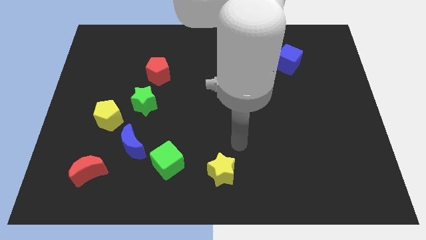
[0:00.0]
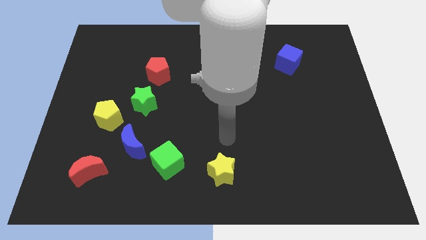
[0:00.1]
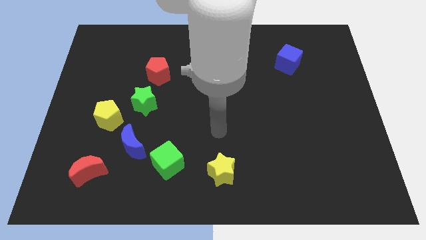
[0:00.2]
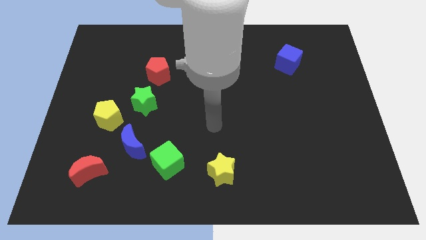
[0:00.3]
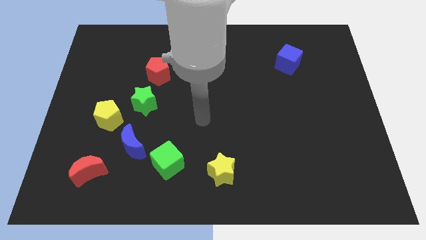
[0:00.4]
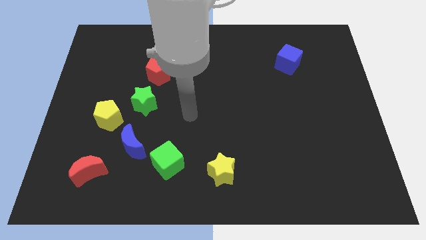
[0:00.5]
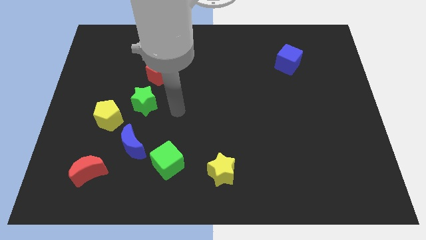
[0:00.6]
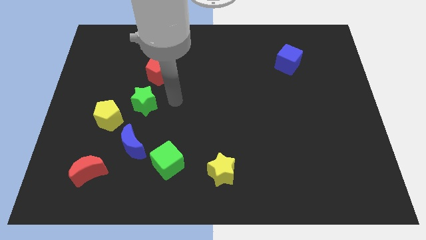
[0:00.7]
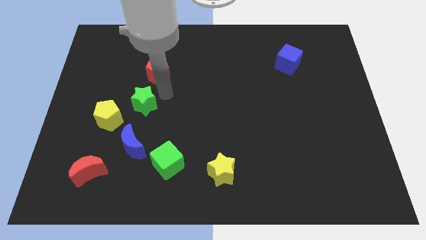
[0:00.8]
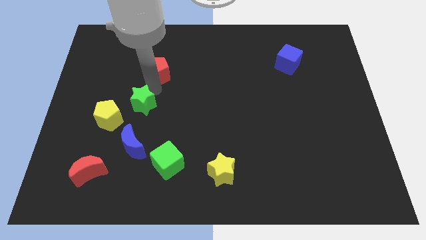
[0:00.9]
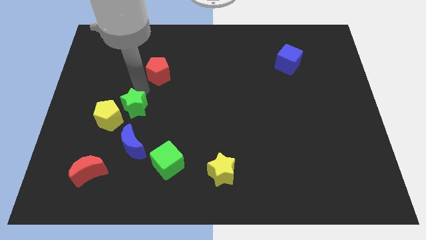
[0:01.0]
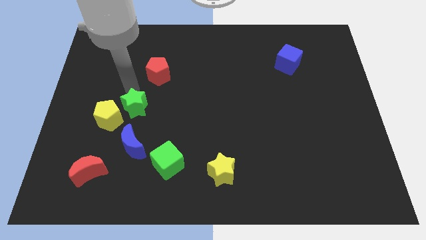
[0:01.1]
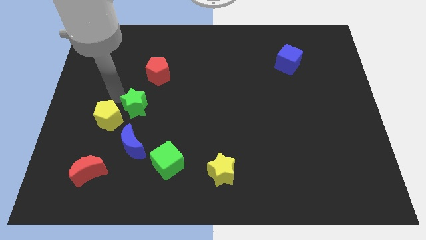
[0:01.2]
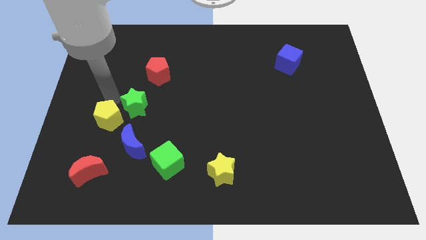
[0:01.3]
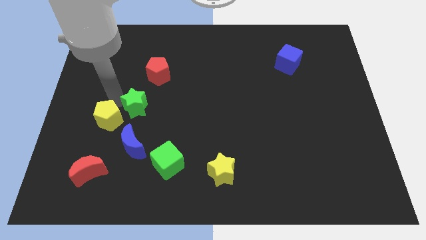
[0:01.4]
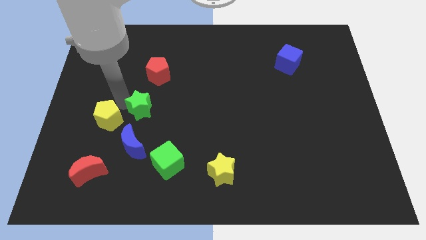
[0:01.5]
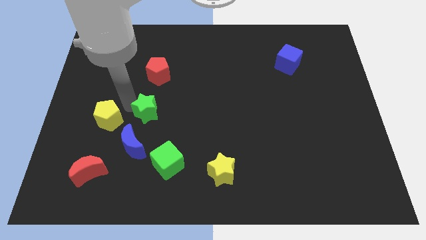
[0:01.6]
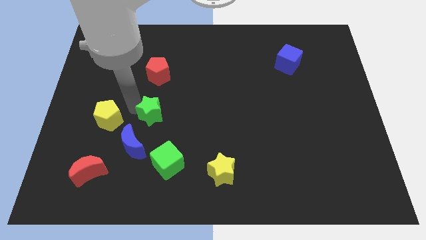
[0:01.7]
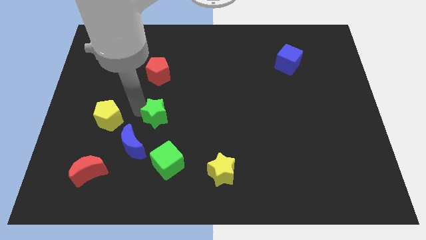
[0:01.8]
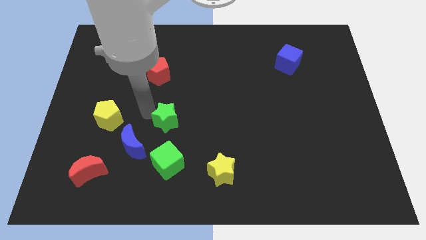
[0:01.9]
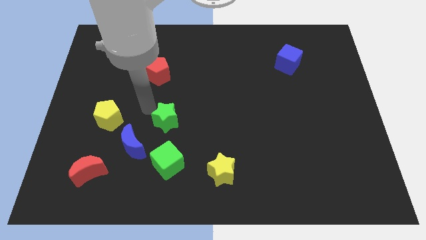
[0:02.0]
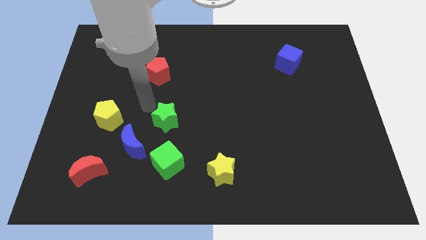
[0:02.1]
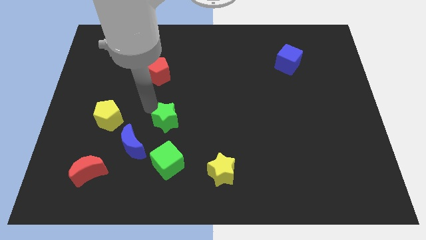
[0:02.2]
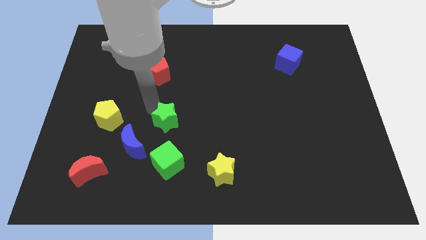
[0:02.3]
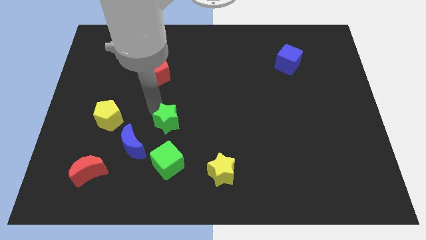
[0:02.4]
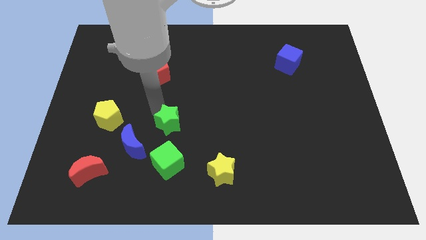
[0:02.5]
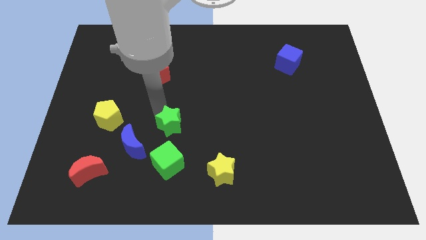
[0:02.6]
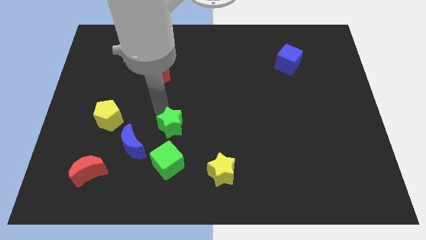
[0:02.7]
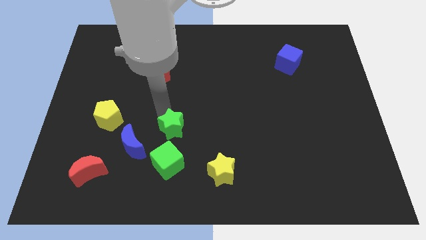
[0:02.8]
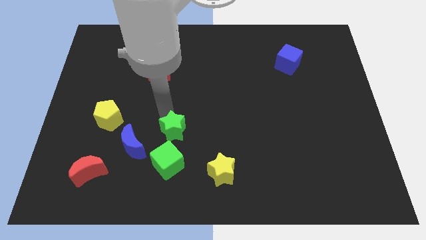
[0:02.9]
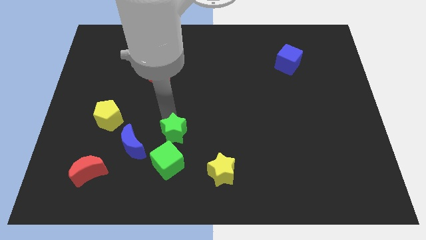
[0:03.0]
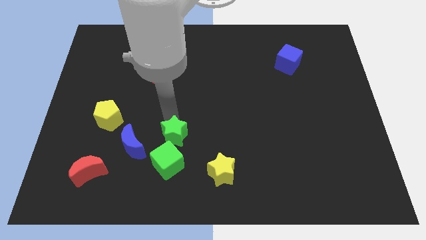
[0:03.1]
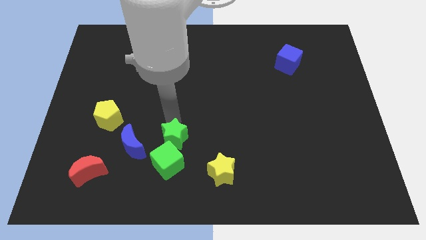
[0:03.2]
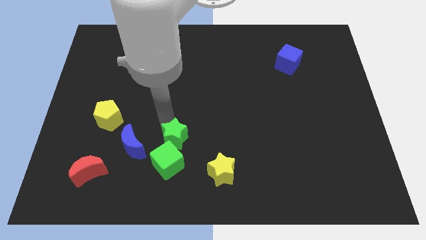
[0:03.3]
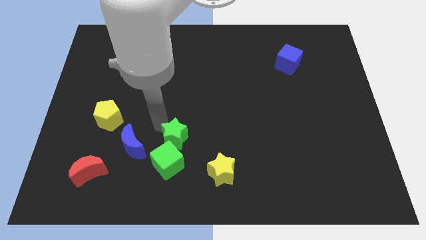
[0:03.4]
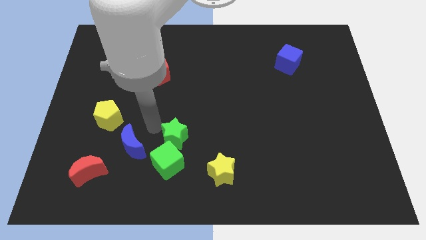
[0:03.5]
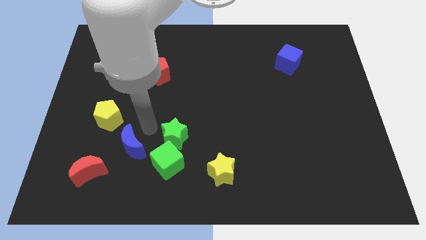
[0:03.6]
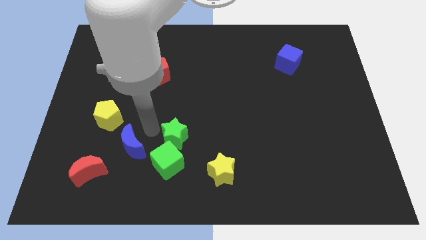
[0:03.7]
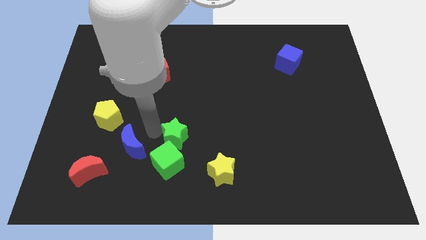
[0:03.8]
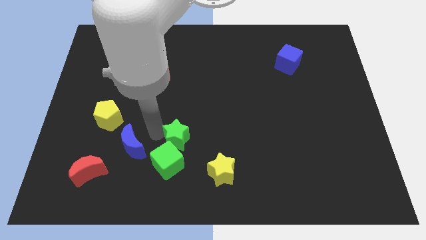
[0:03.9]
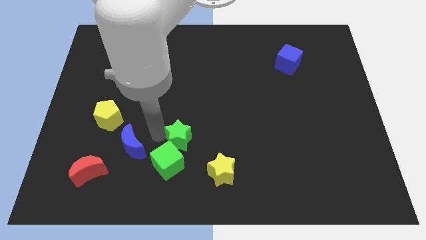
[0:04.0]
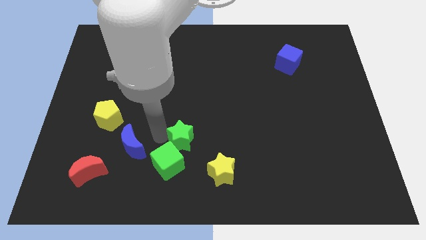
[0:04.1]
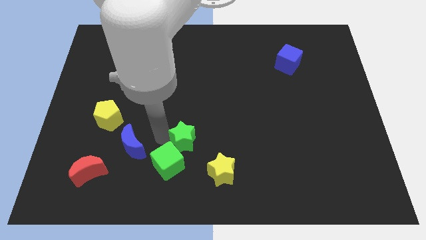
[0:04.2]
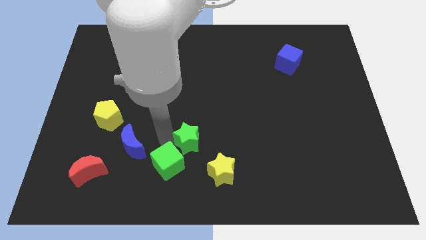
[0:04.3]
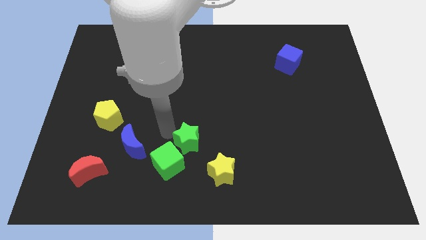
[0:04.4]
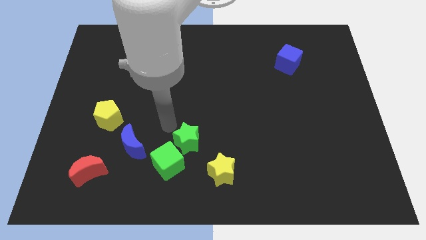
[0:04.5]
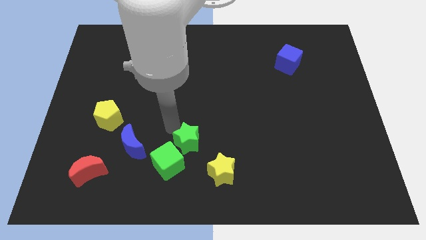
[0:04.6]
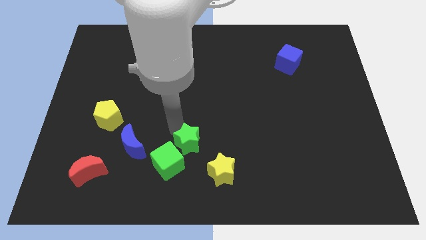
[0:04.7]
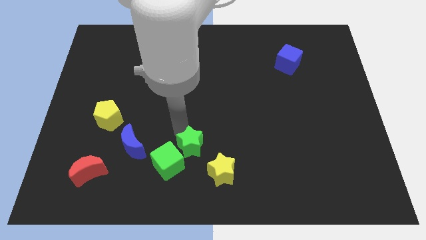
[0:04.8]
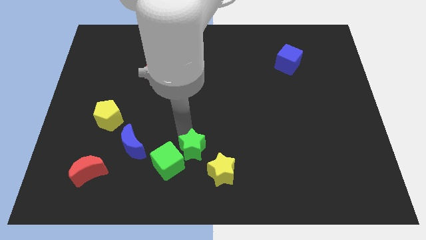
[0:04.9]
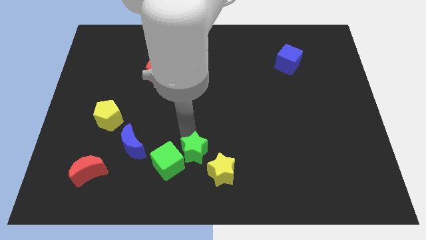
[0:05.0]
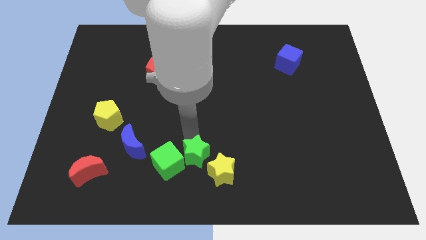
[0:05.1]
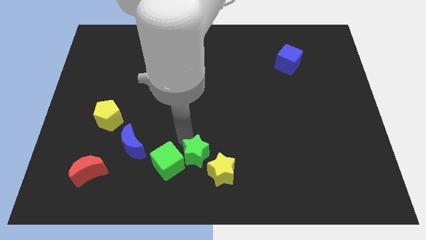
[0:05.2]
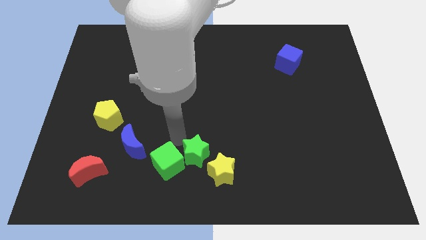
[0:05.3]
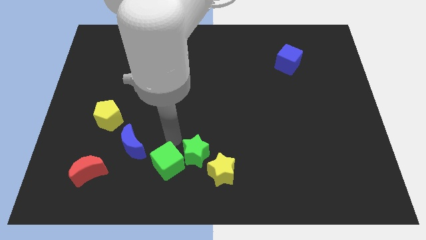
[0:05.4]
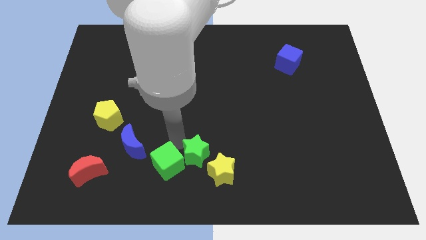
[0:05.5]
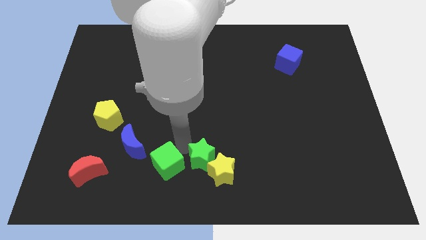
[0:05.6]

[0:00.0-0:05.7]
move the green star to the yellow star

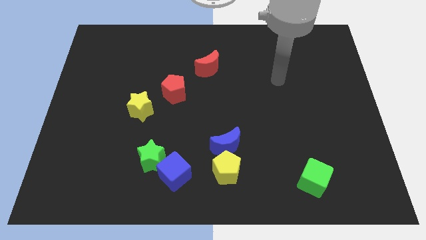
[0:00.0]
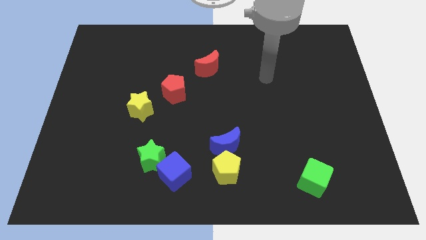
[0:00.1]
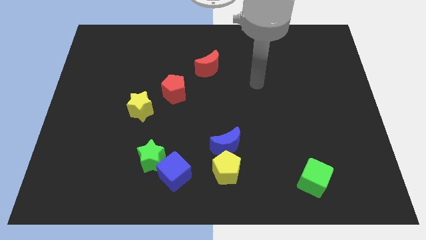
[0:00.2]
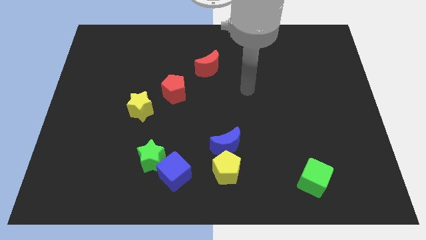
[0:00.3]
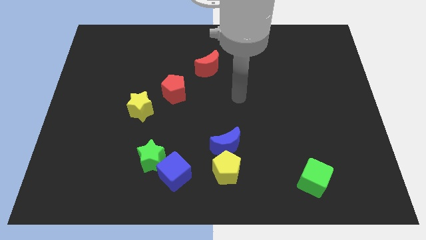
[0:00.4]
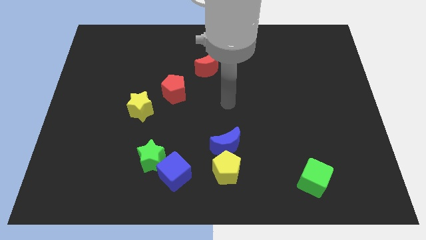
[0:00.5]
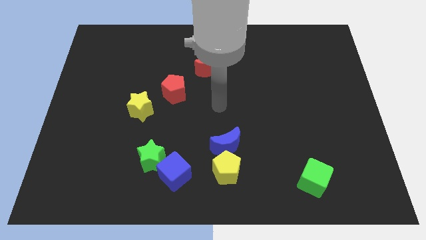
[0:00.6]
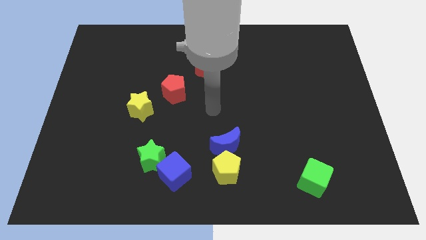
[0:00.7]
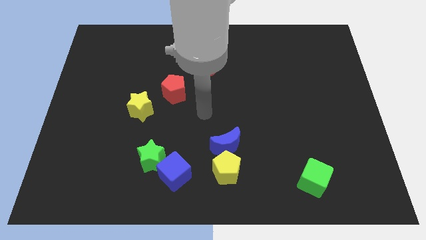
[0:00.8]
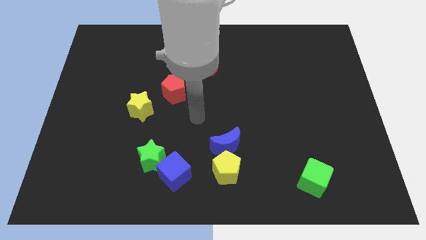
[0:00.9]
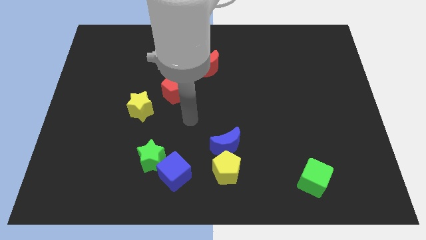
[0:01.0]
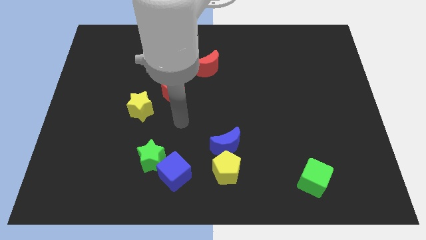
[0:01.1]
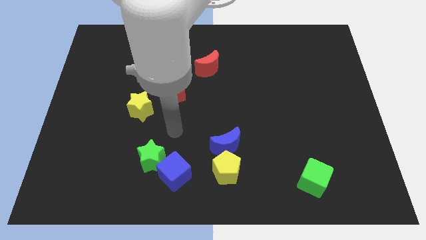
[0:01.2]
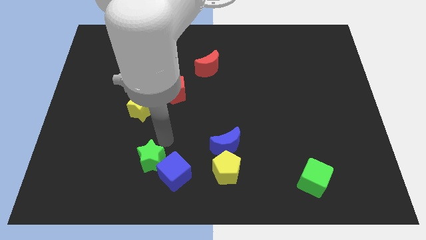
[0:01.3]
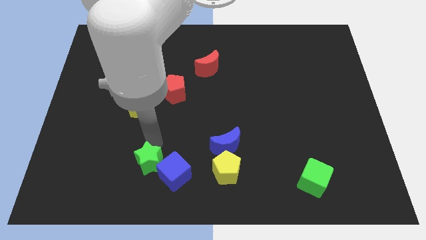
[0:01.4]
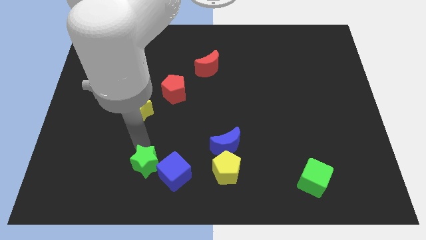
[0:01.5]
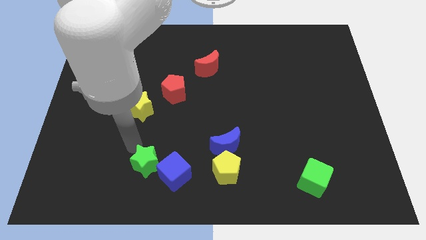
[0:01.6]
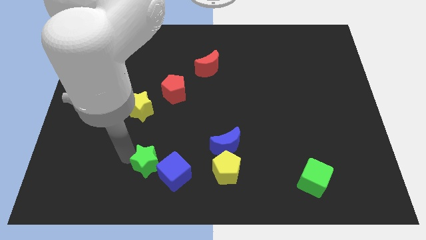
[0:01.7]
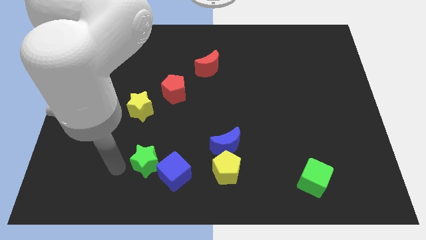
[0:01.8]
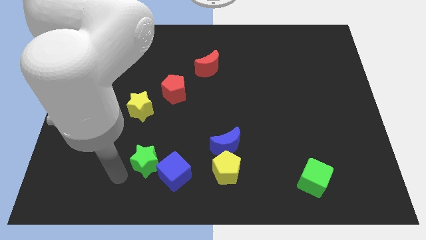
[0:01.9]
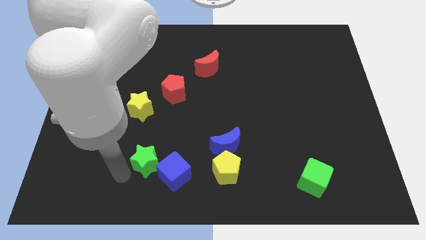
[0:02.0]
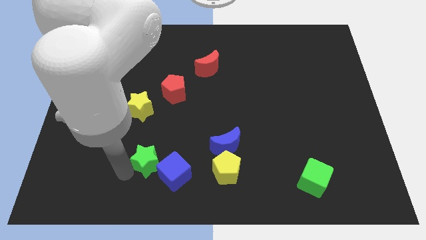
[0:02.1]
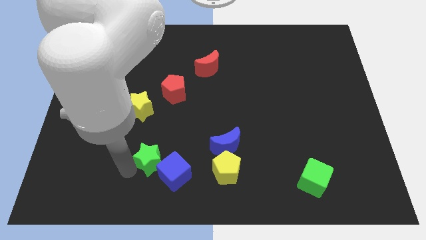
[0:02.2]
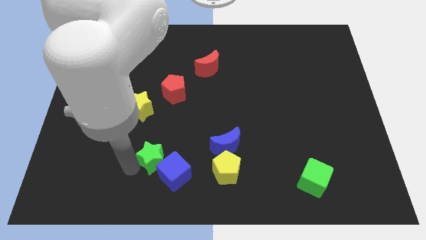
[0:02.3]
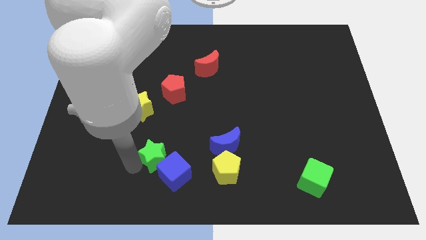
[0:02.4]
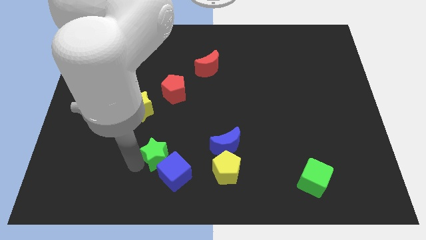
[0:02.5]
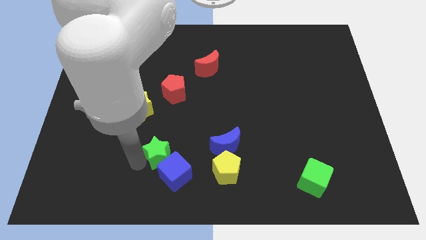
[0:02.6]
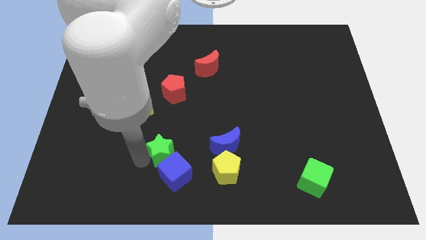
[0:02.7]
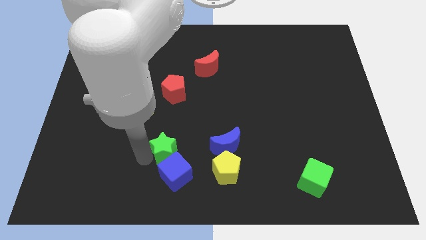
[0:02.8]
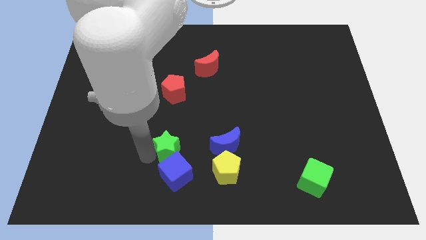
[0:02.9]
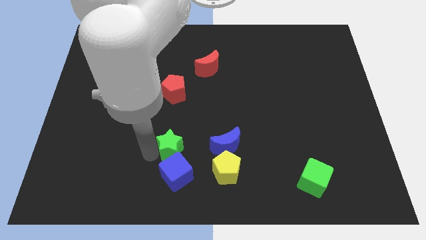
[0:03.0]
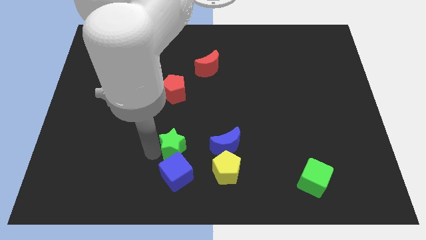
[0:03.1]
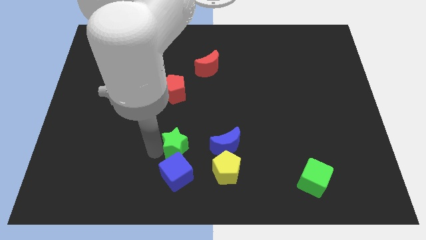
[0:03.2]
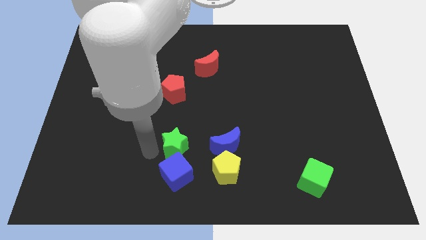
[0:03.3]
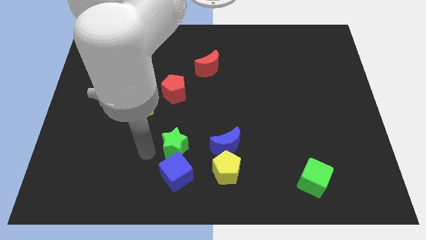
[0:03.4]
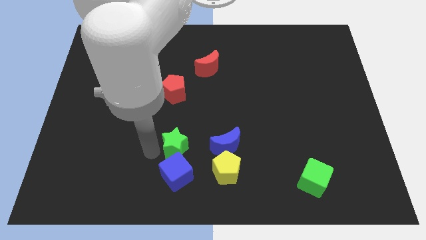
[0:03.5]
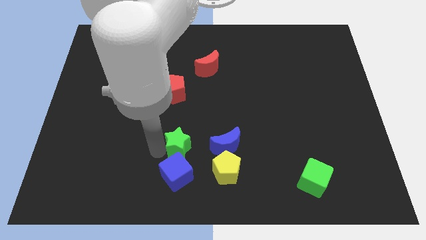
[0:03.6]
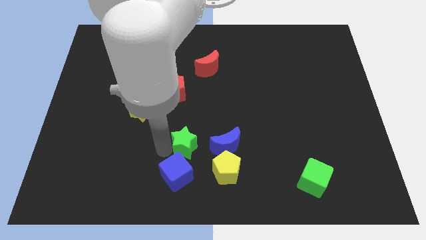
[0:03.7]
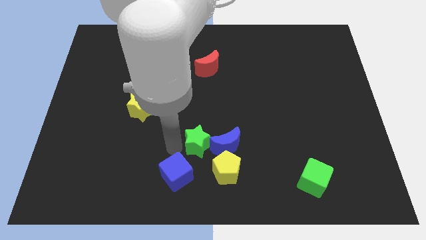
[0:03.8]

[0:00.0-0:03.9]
push the green star to the blue moon
